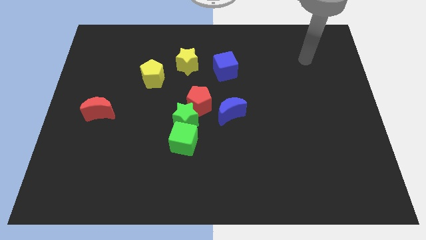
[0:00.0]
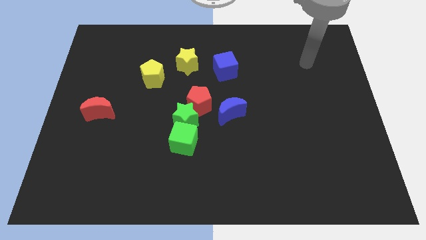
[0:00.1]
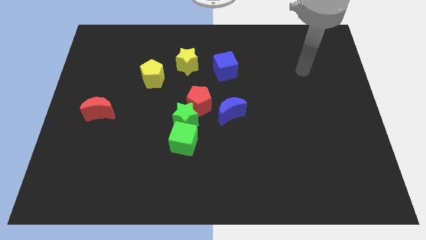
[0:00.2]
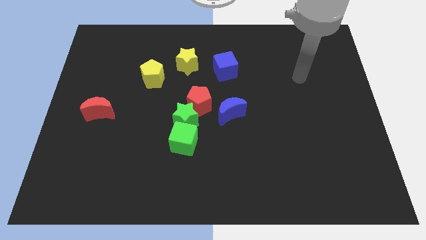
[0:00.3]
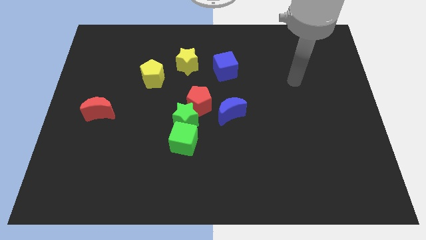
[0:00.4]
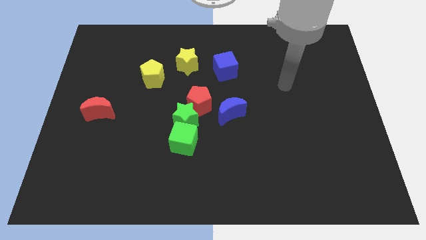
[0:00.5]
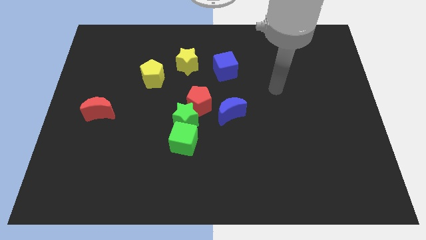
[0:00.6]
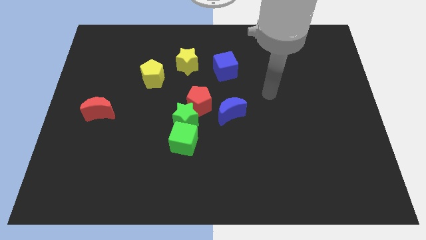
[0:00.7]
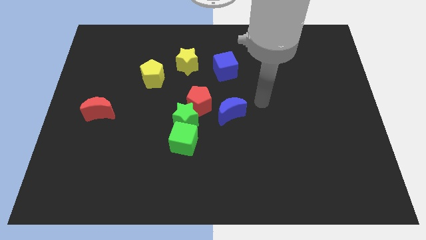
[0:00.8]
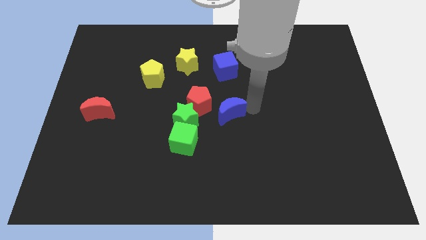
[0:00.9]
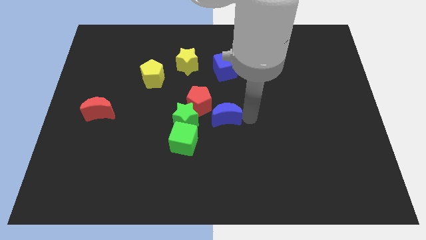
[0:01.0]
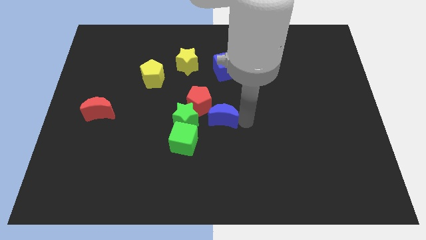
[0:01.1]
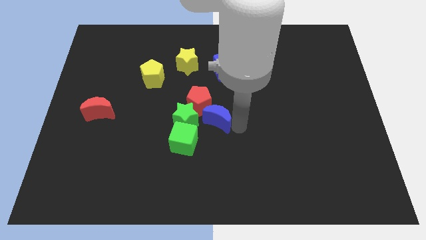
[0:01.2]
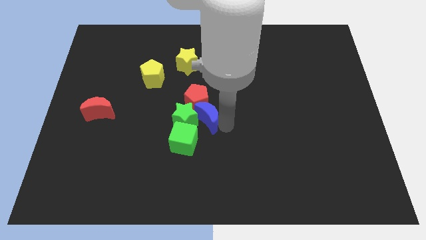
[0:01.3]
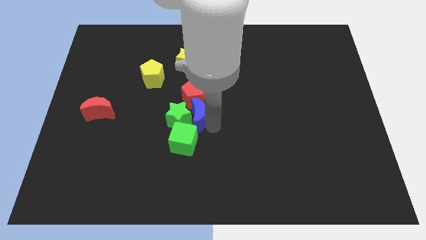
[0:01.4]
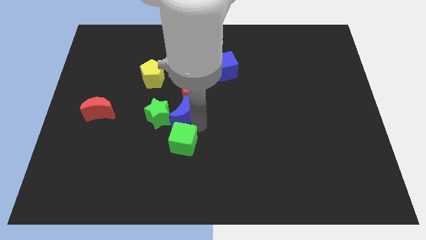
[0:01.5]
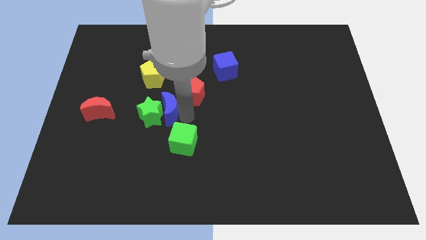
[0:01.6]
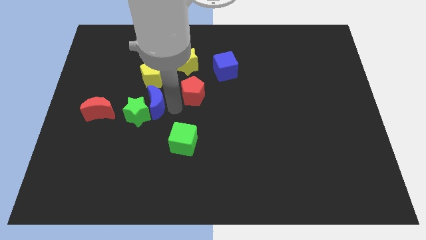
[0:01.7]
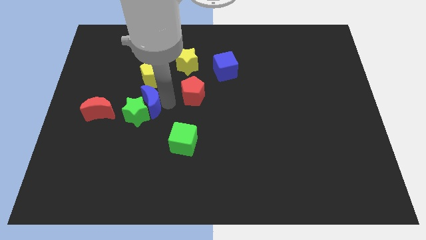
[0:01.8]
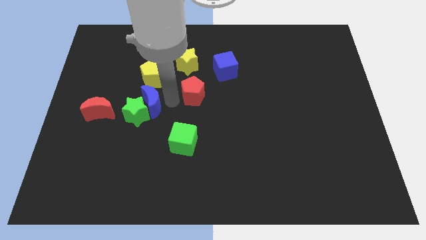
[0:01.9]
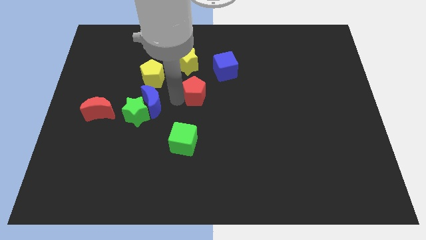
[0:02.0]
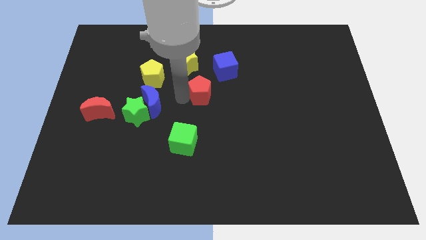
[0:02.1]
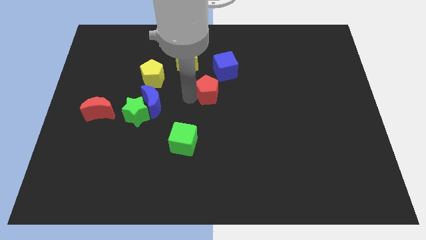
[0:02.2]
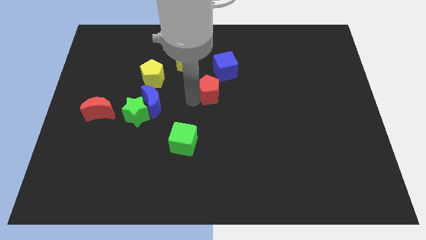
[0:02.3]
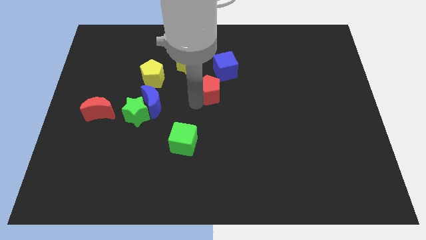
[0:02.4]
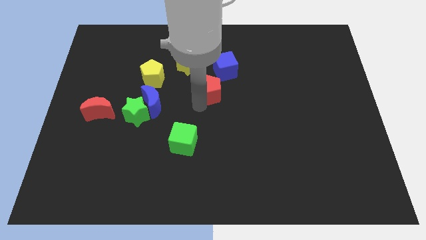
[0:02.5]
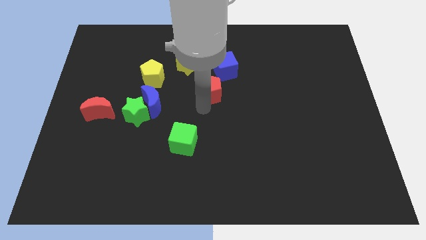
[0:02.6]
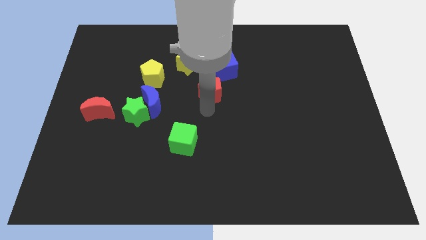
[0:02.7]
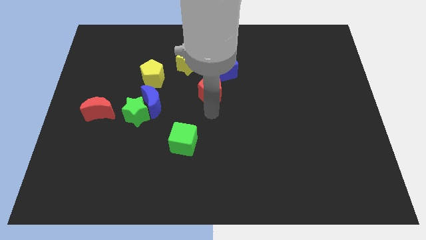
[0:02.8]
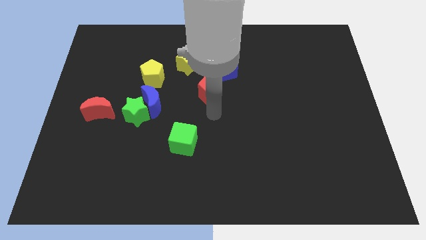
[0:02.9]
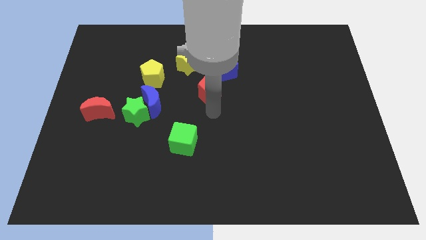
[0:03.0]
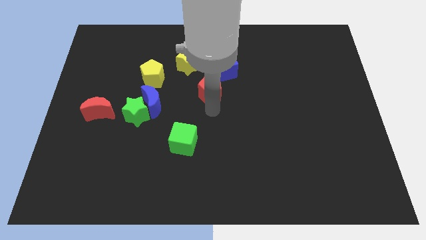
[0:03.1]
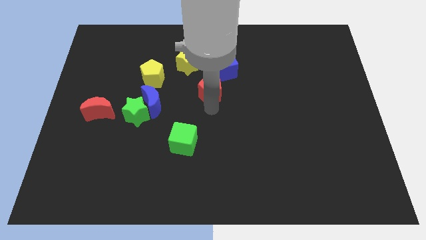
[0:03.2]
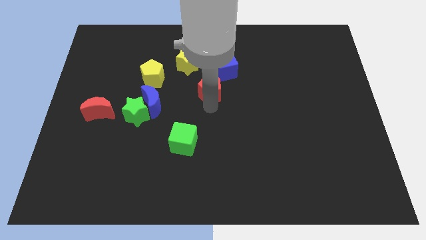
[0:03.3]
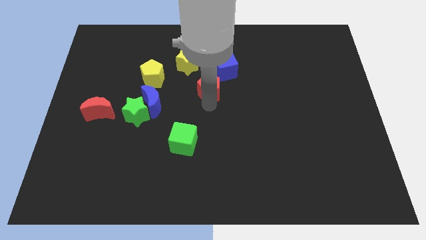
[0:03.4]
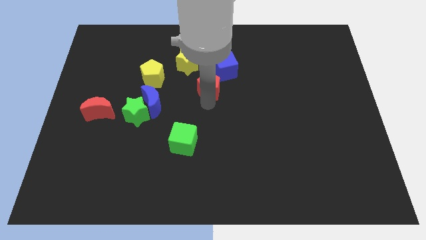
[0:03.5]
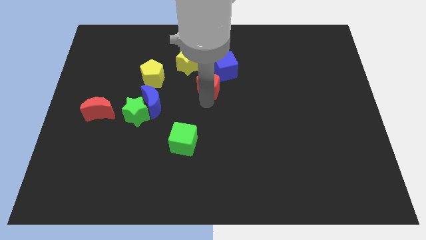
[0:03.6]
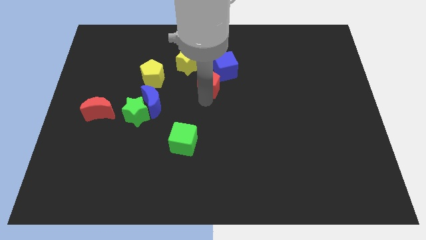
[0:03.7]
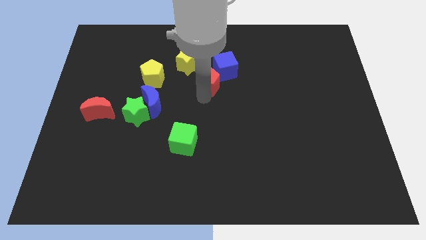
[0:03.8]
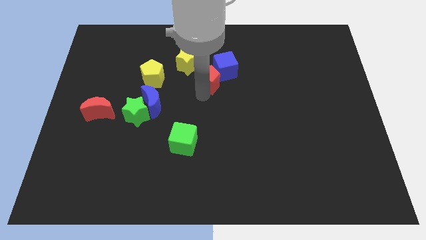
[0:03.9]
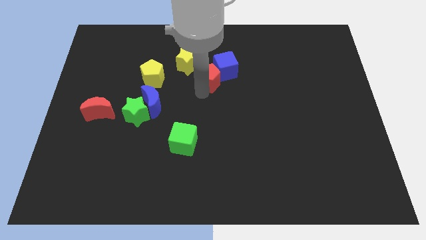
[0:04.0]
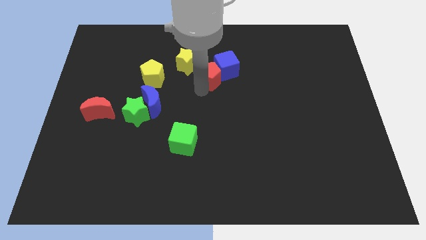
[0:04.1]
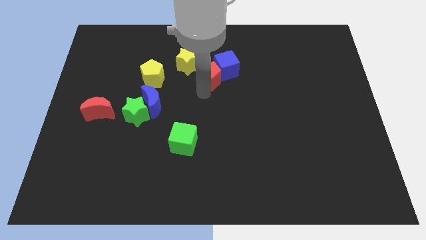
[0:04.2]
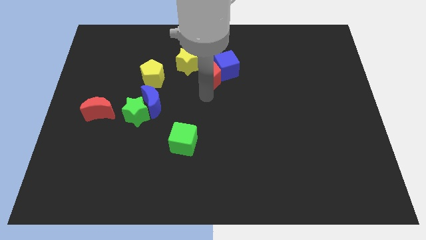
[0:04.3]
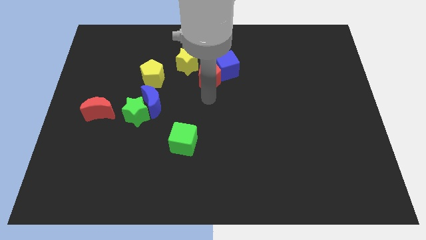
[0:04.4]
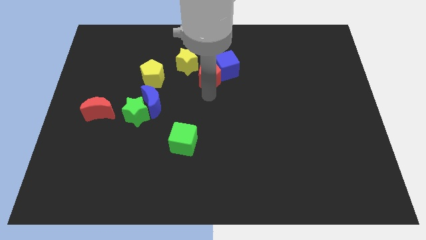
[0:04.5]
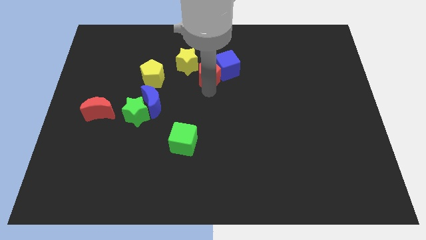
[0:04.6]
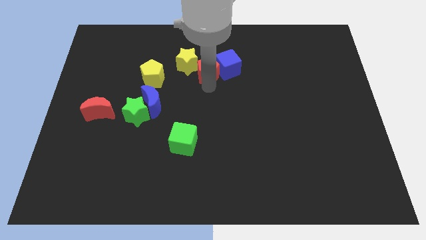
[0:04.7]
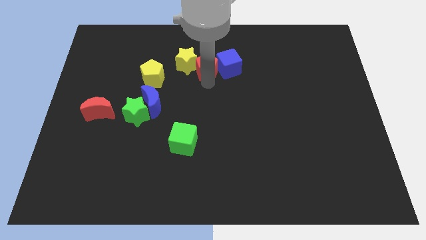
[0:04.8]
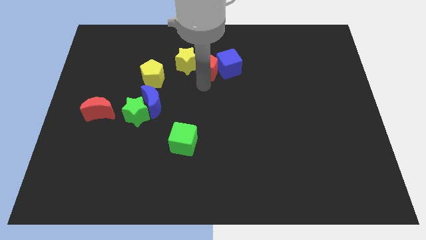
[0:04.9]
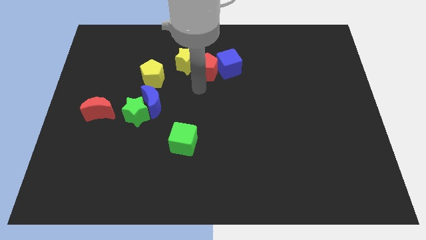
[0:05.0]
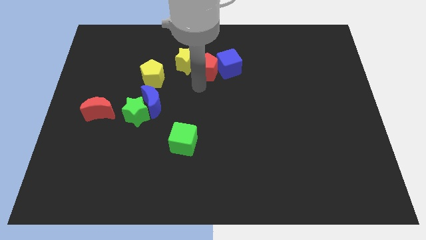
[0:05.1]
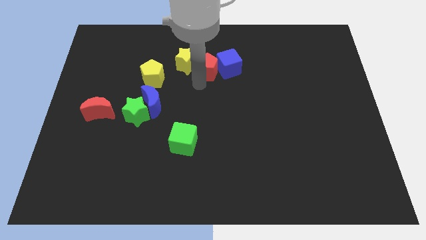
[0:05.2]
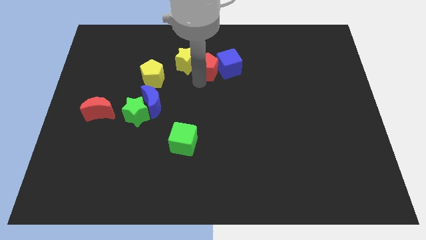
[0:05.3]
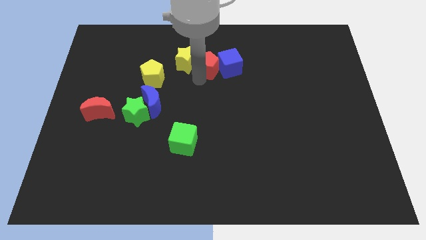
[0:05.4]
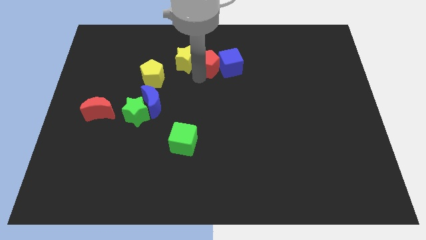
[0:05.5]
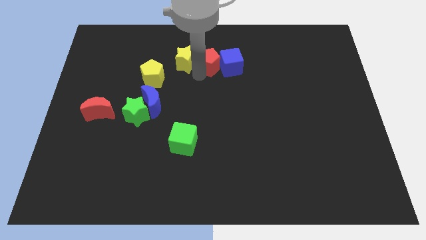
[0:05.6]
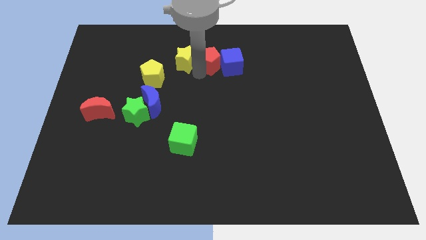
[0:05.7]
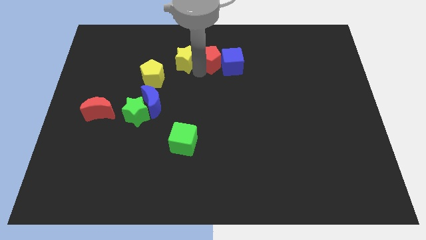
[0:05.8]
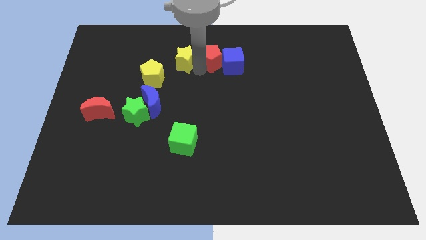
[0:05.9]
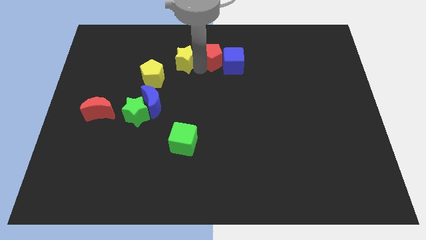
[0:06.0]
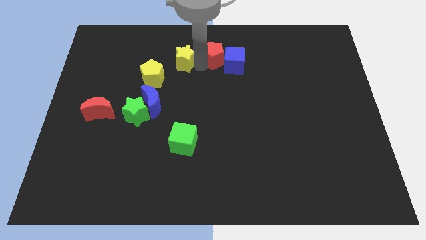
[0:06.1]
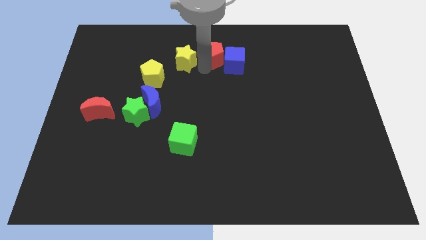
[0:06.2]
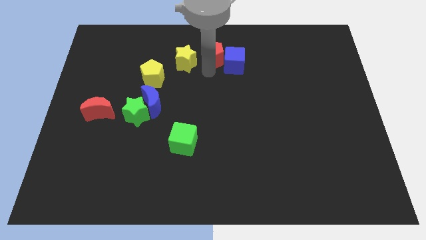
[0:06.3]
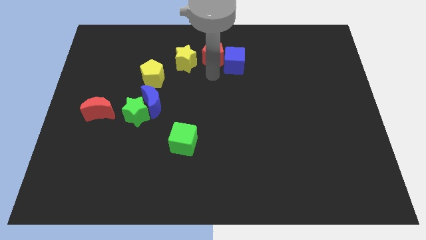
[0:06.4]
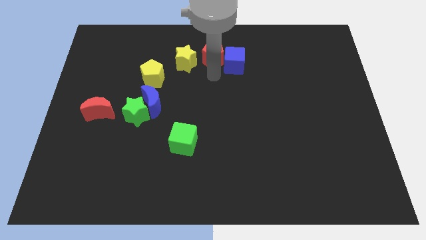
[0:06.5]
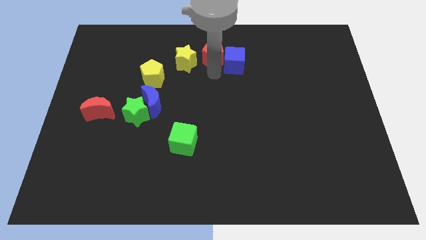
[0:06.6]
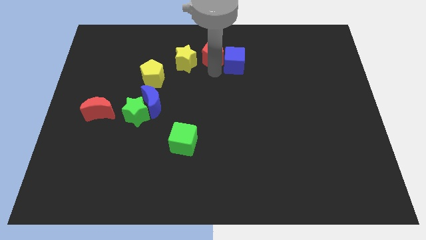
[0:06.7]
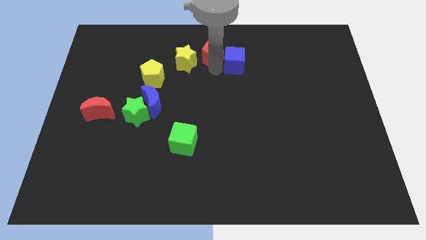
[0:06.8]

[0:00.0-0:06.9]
push the red pentagon to the towards your base
